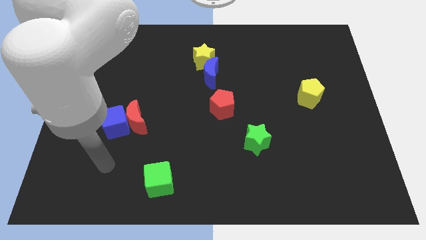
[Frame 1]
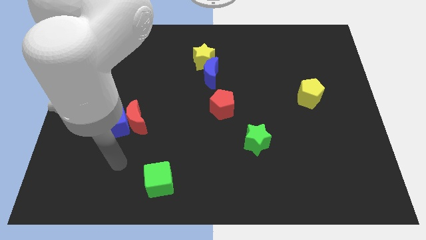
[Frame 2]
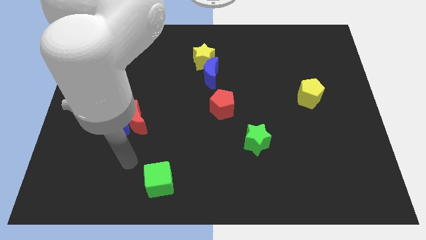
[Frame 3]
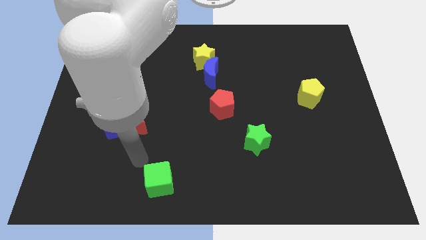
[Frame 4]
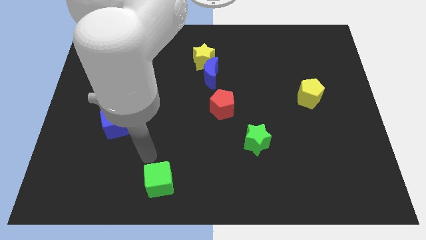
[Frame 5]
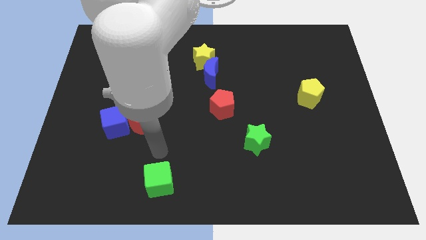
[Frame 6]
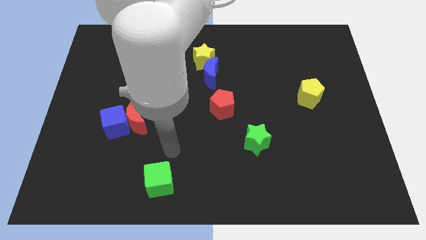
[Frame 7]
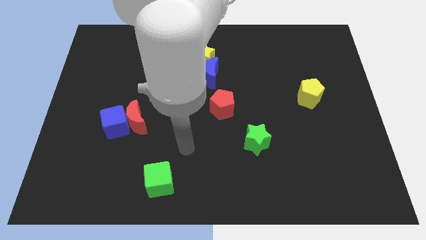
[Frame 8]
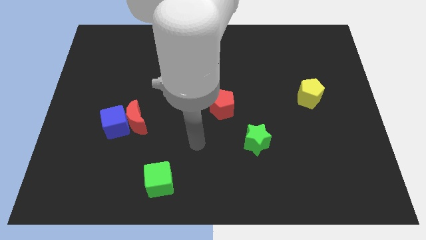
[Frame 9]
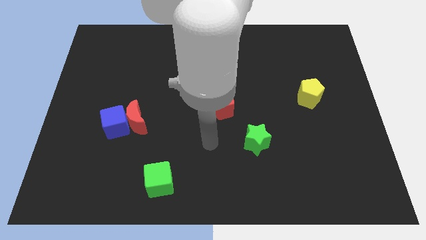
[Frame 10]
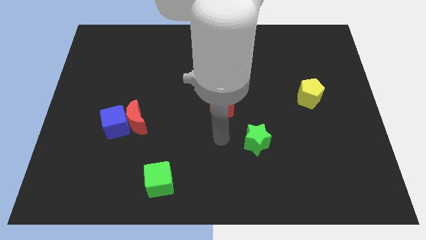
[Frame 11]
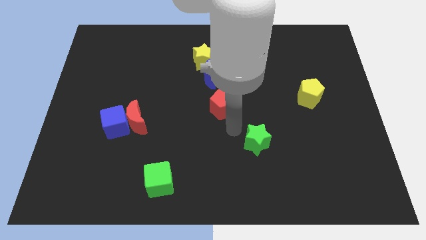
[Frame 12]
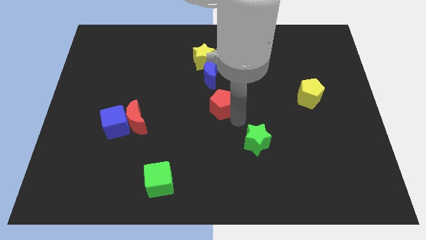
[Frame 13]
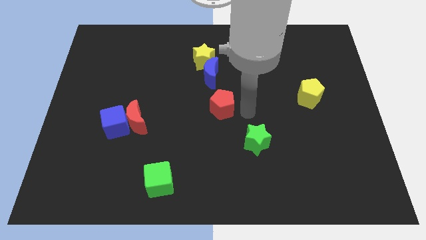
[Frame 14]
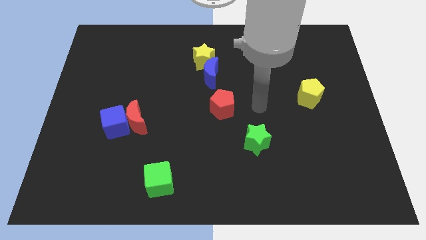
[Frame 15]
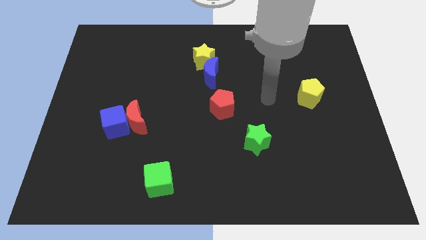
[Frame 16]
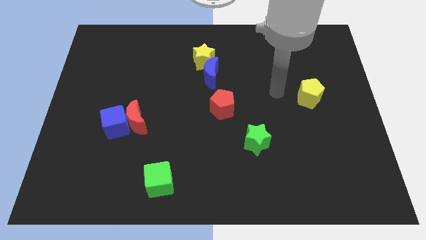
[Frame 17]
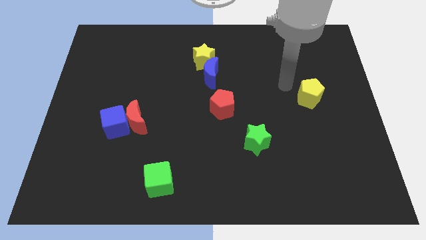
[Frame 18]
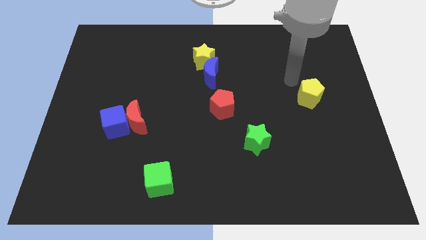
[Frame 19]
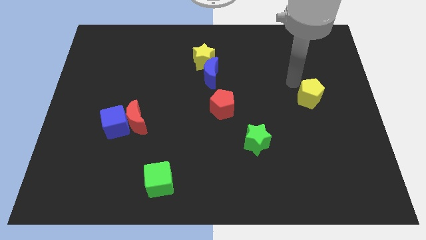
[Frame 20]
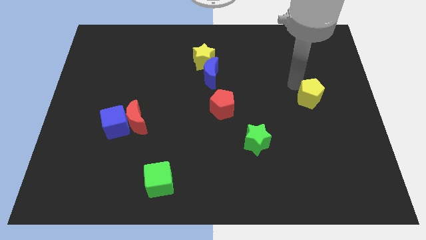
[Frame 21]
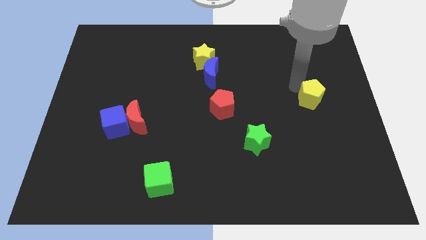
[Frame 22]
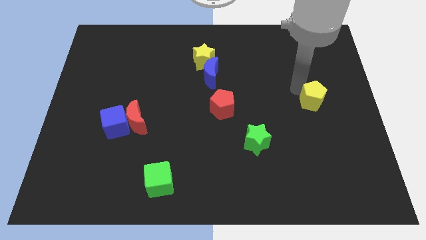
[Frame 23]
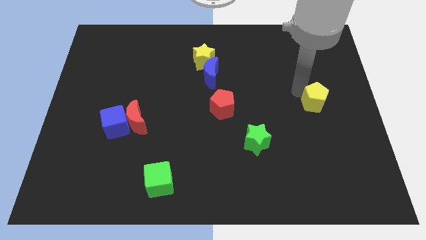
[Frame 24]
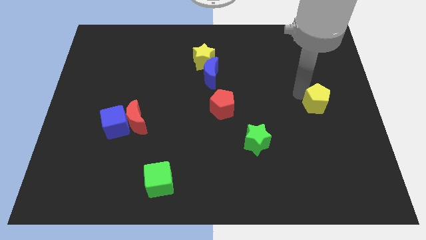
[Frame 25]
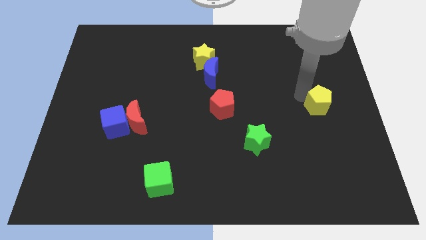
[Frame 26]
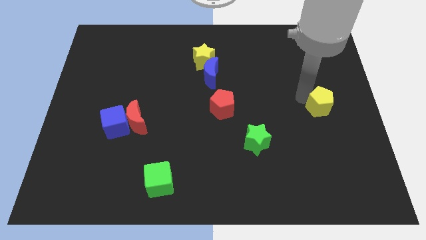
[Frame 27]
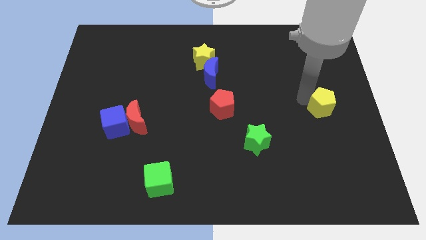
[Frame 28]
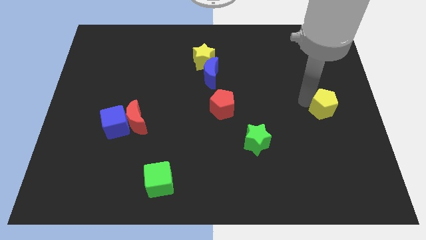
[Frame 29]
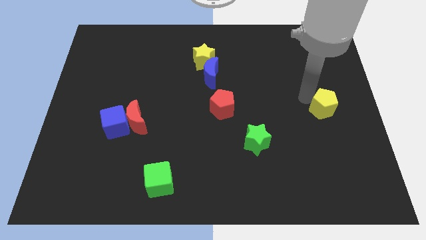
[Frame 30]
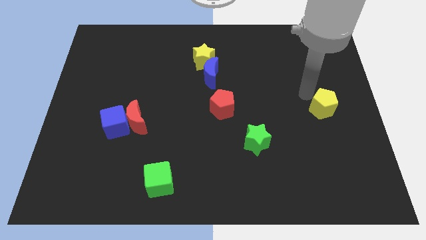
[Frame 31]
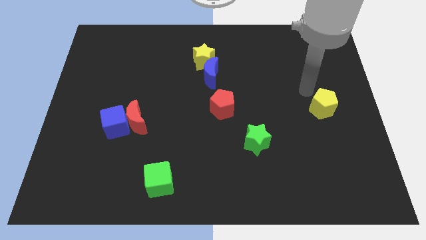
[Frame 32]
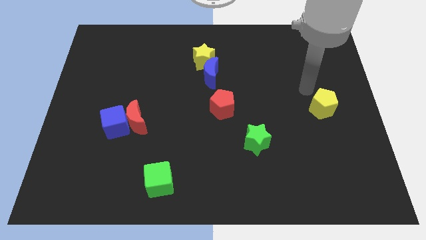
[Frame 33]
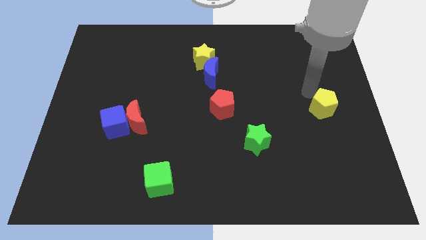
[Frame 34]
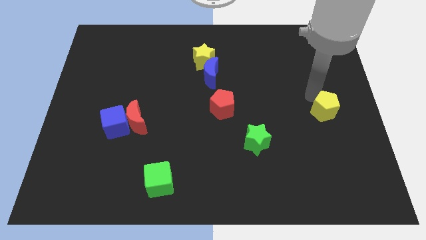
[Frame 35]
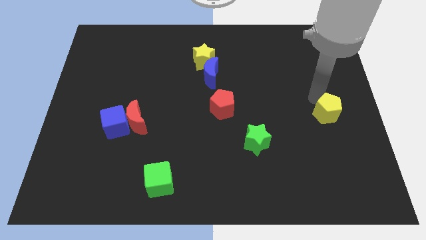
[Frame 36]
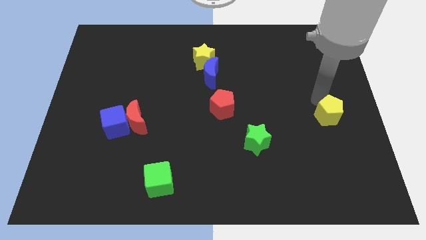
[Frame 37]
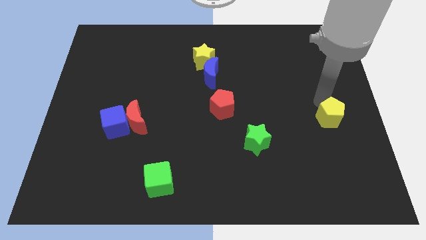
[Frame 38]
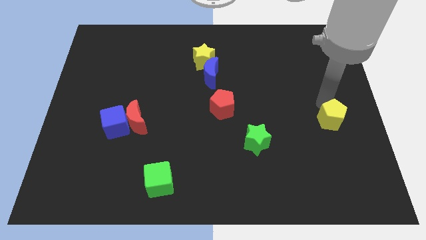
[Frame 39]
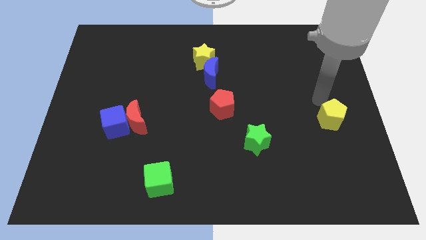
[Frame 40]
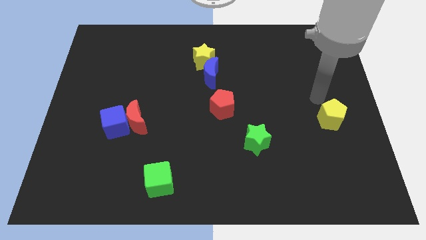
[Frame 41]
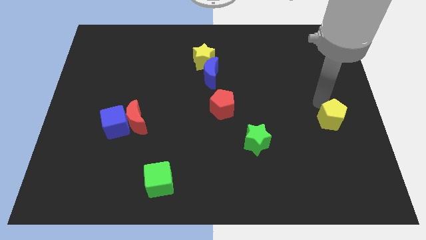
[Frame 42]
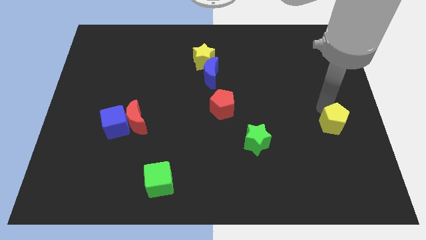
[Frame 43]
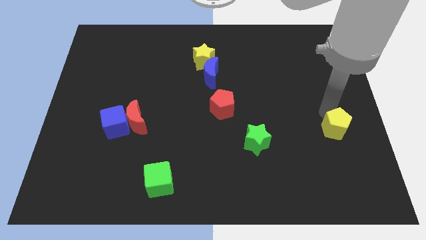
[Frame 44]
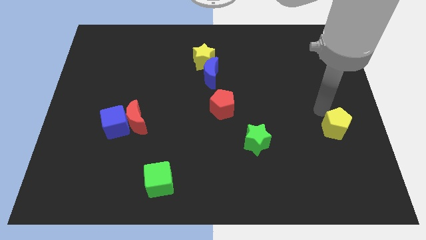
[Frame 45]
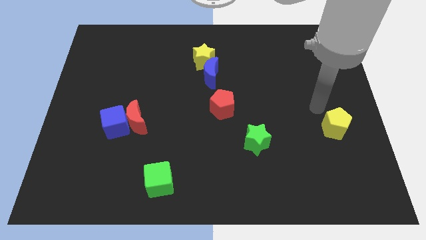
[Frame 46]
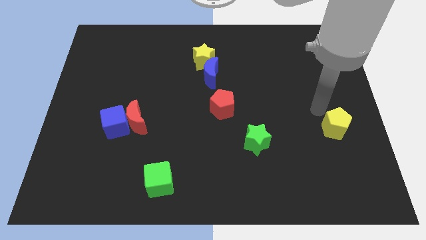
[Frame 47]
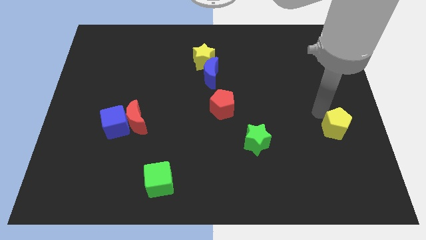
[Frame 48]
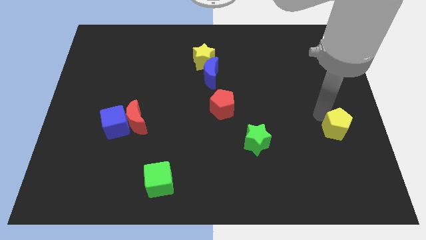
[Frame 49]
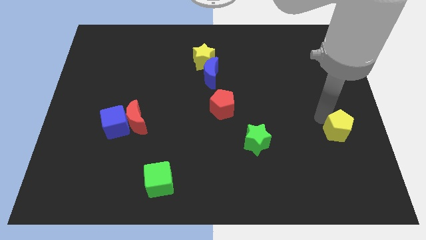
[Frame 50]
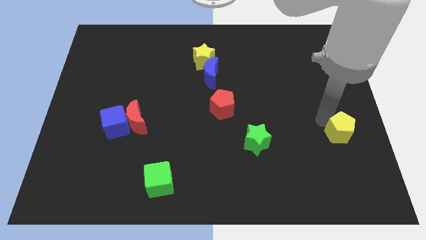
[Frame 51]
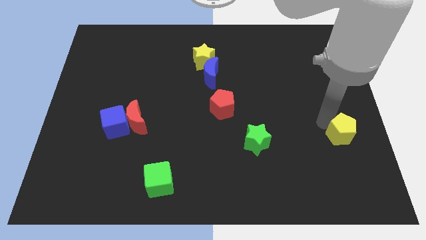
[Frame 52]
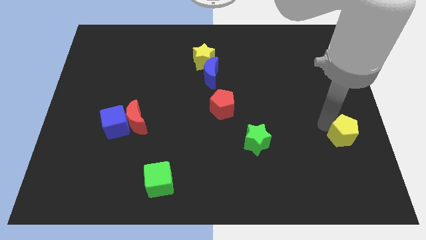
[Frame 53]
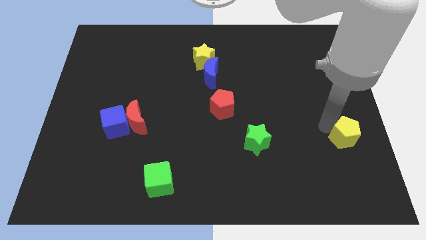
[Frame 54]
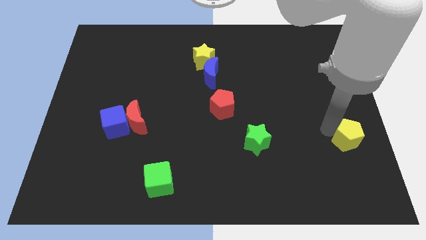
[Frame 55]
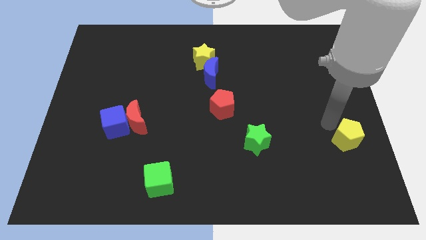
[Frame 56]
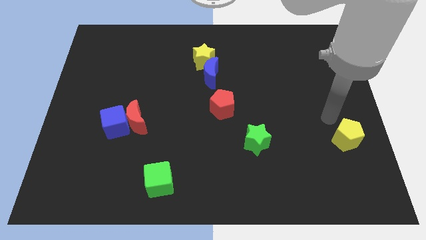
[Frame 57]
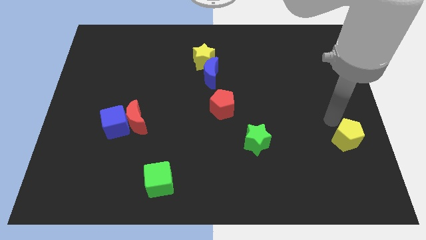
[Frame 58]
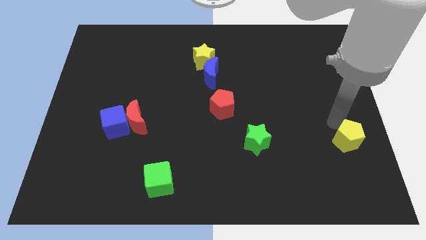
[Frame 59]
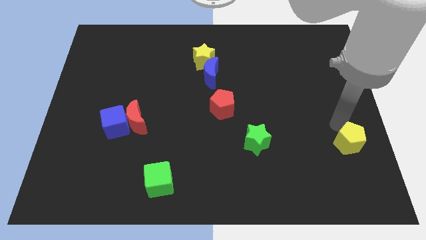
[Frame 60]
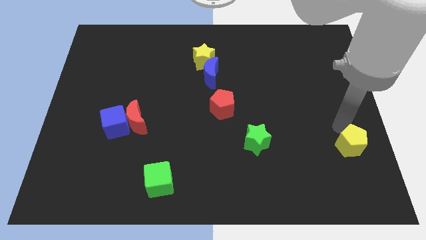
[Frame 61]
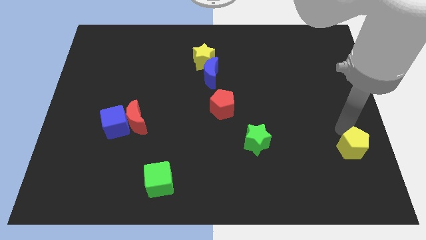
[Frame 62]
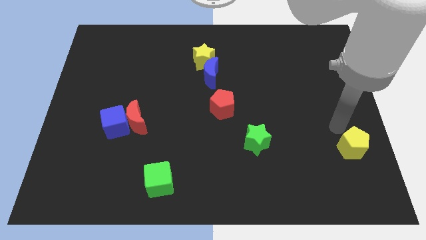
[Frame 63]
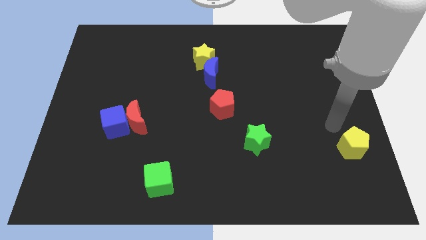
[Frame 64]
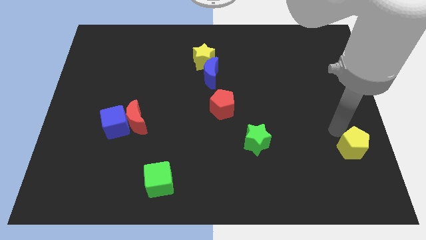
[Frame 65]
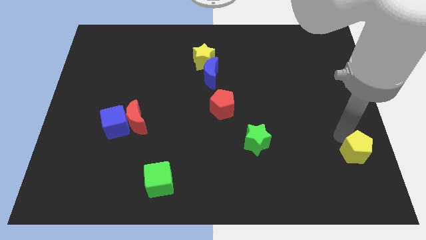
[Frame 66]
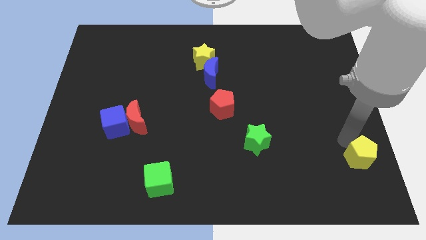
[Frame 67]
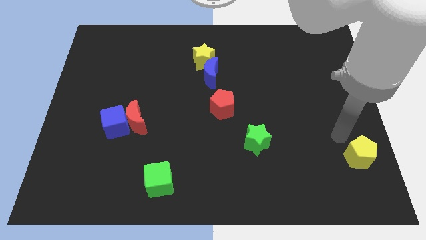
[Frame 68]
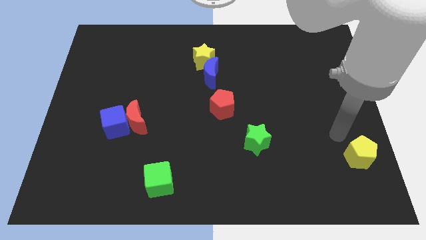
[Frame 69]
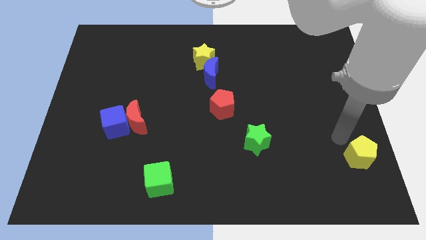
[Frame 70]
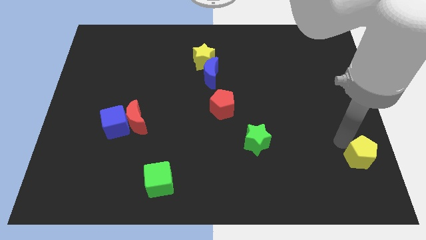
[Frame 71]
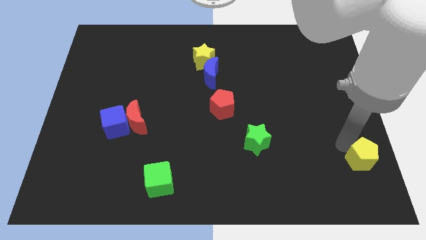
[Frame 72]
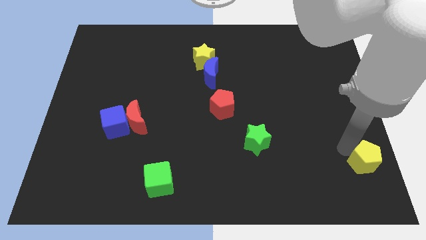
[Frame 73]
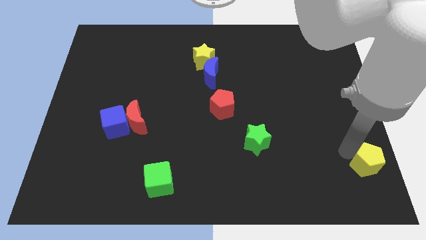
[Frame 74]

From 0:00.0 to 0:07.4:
put the yellow pentagon to the bottom right

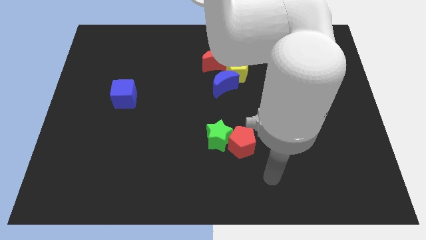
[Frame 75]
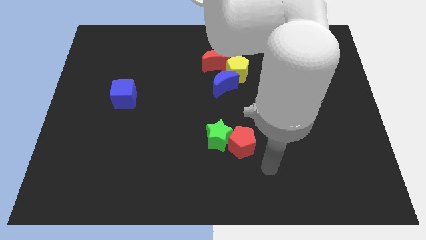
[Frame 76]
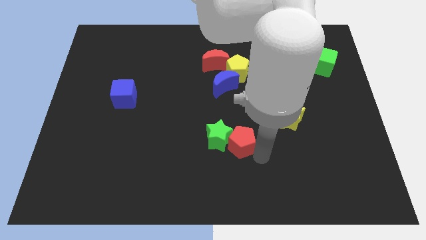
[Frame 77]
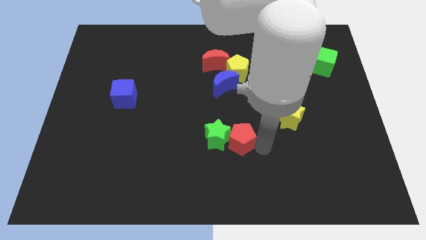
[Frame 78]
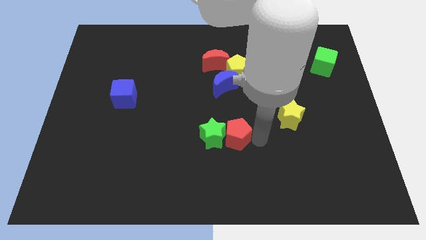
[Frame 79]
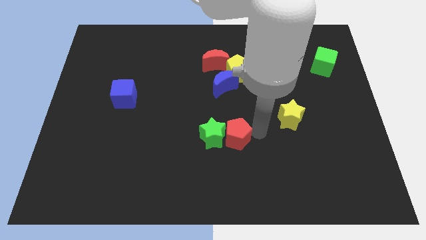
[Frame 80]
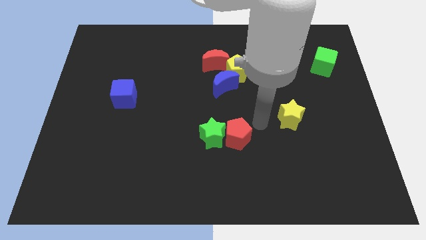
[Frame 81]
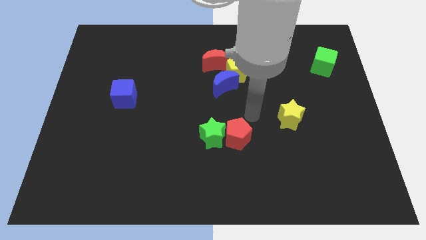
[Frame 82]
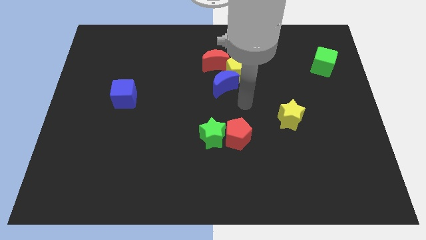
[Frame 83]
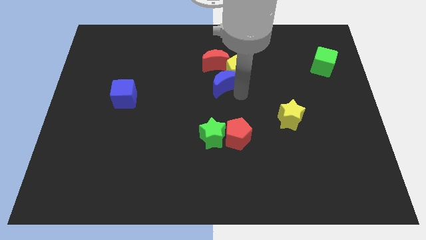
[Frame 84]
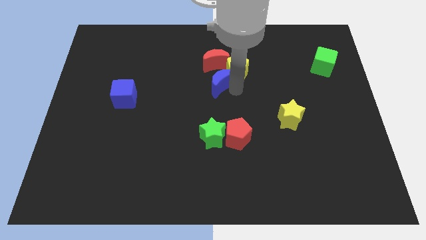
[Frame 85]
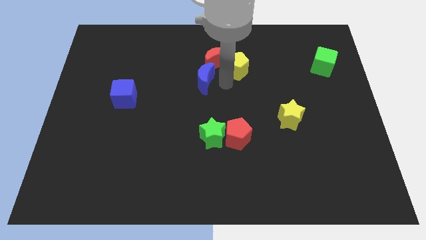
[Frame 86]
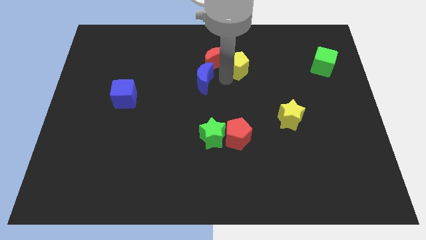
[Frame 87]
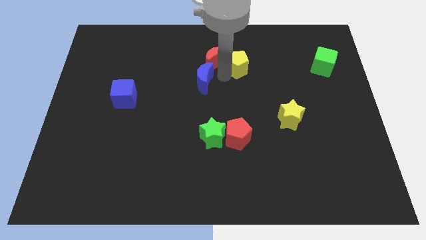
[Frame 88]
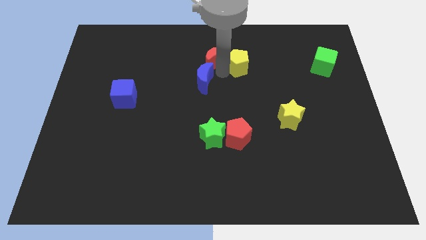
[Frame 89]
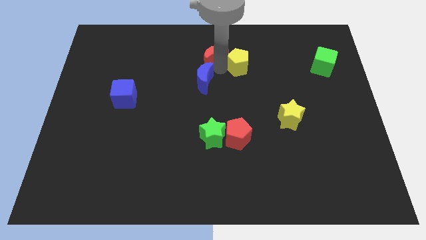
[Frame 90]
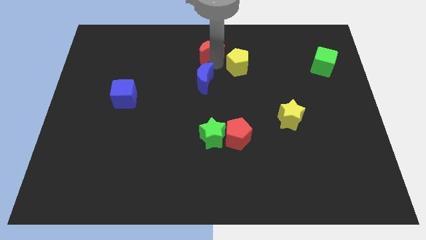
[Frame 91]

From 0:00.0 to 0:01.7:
slide the red moon to the top
